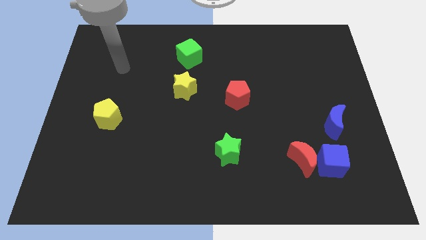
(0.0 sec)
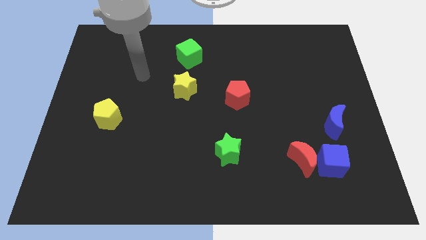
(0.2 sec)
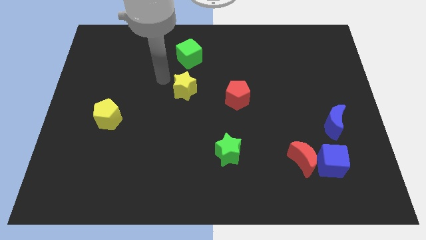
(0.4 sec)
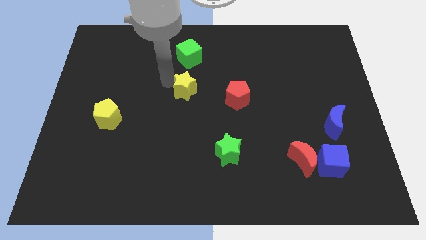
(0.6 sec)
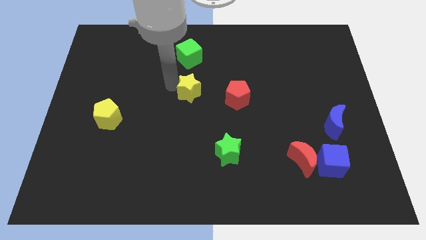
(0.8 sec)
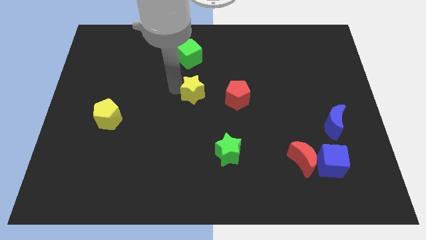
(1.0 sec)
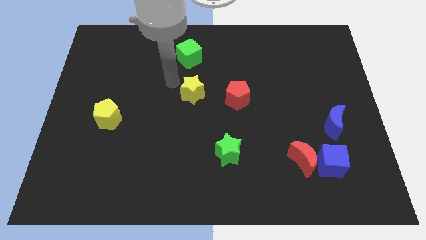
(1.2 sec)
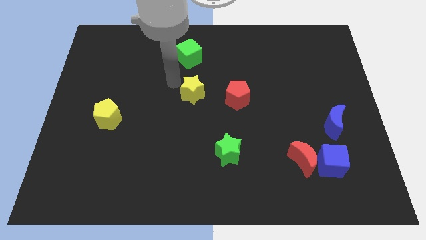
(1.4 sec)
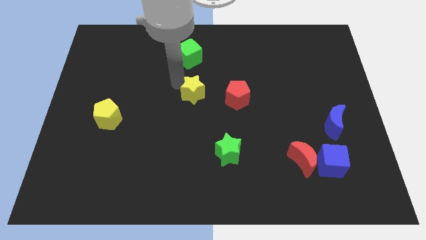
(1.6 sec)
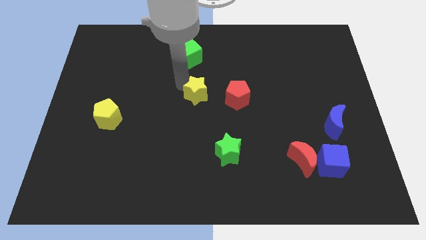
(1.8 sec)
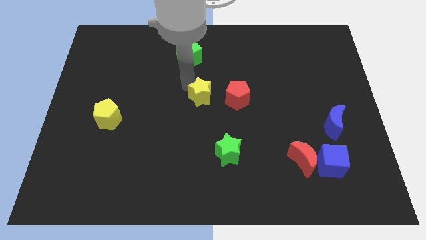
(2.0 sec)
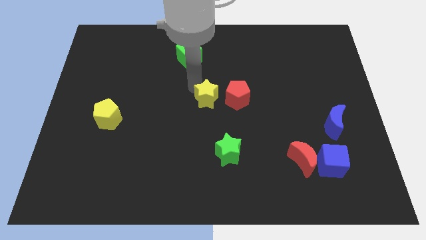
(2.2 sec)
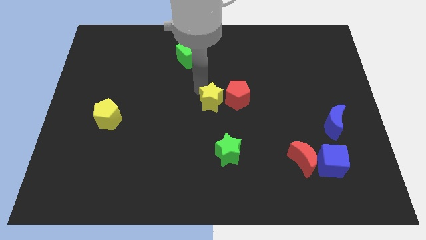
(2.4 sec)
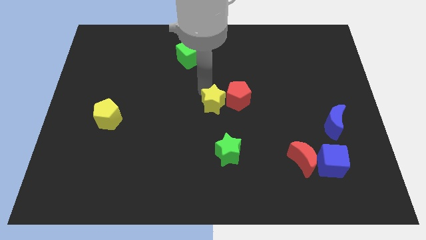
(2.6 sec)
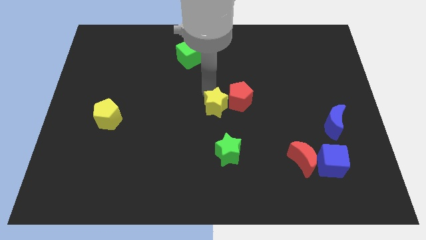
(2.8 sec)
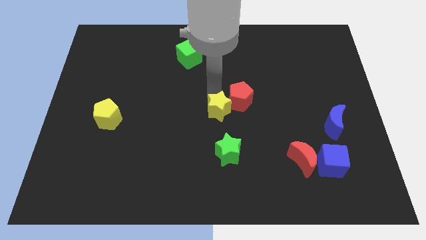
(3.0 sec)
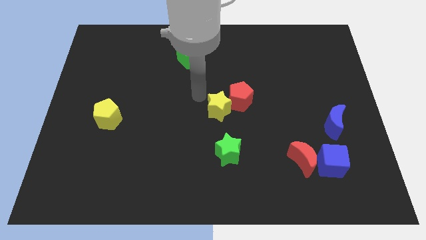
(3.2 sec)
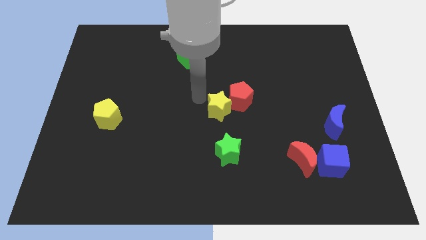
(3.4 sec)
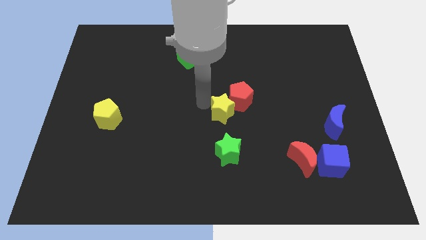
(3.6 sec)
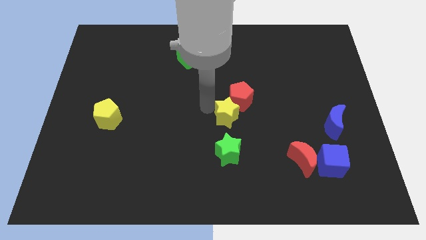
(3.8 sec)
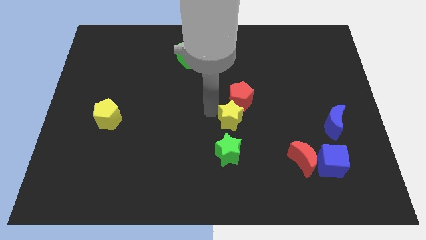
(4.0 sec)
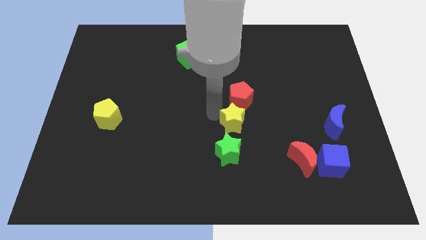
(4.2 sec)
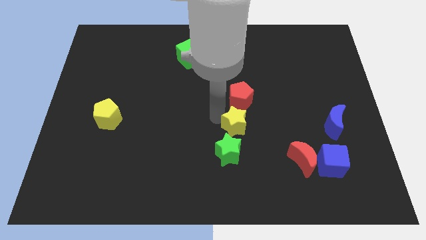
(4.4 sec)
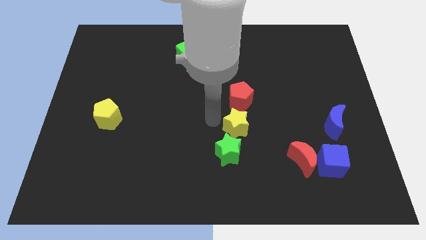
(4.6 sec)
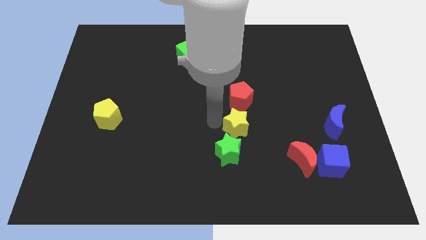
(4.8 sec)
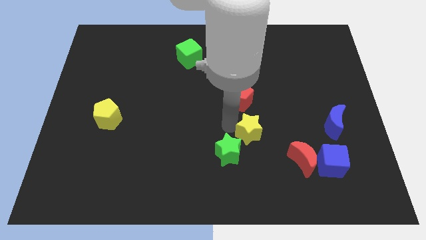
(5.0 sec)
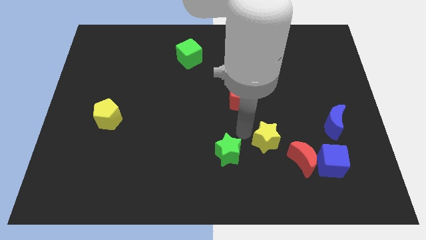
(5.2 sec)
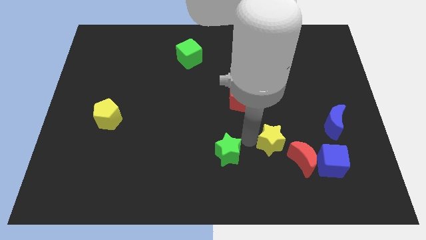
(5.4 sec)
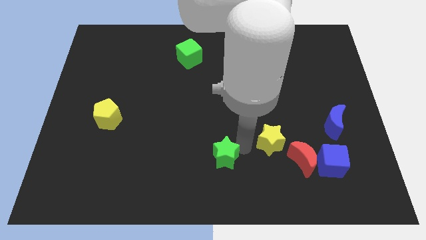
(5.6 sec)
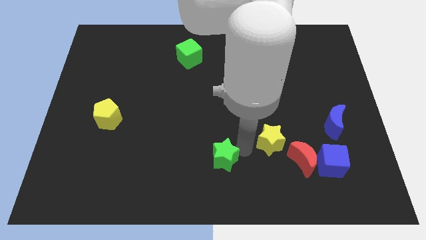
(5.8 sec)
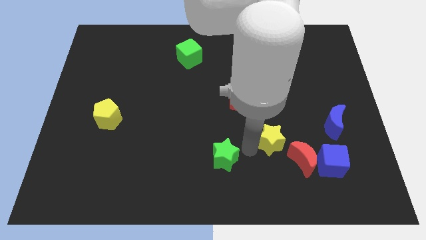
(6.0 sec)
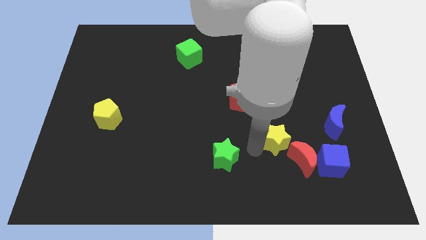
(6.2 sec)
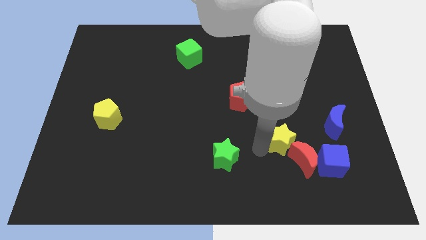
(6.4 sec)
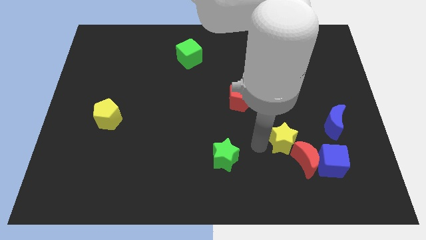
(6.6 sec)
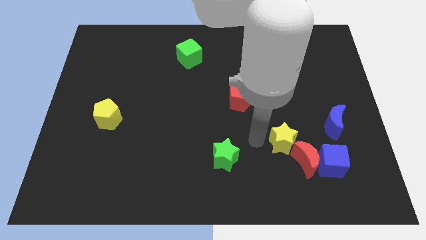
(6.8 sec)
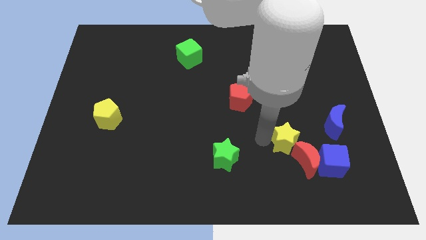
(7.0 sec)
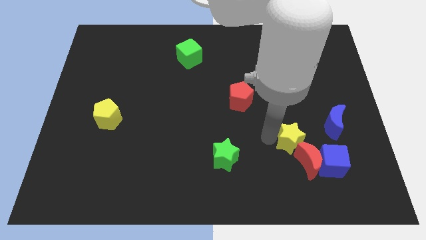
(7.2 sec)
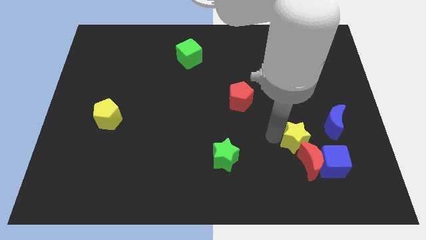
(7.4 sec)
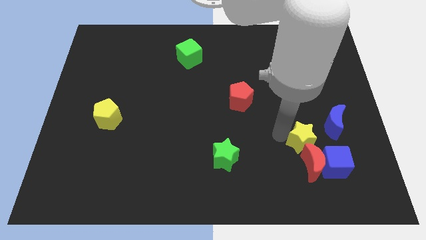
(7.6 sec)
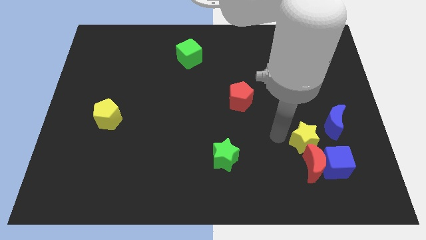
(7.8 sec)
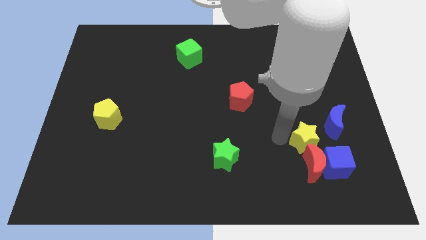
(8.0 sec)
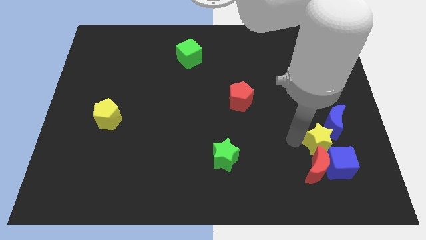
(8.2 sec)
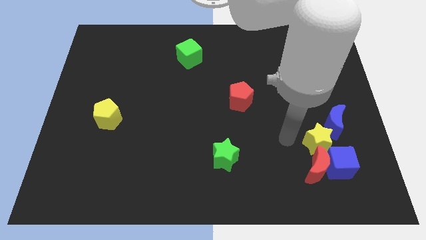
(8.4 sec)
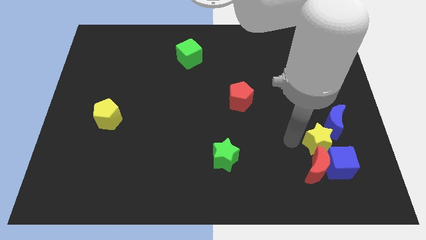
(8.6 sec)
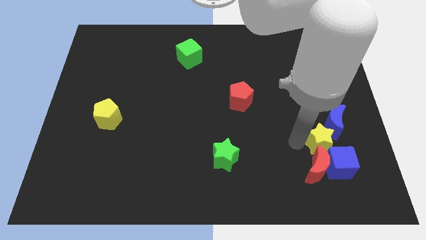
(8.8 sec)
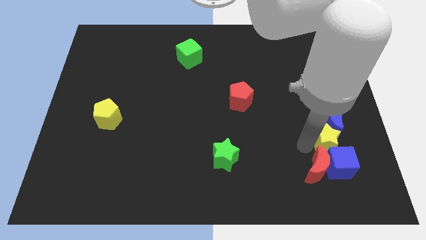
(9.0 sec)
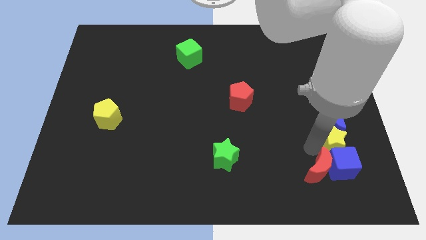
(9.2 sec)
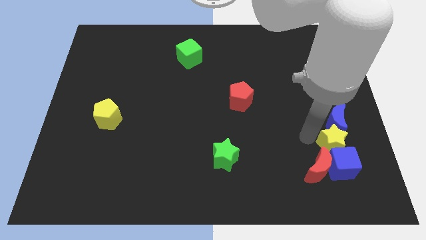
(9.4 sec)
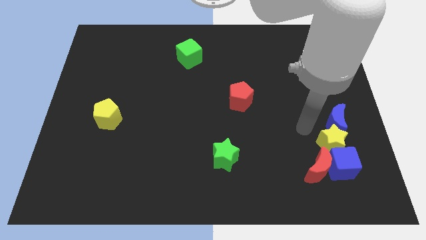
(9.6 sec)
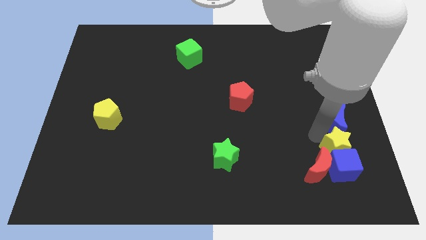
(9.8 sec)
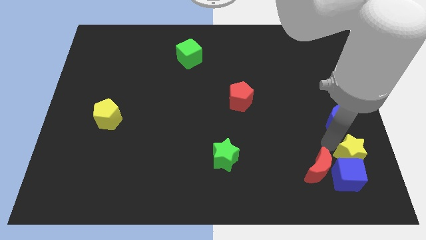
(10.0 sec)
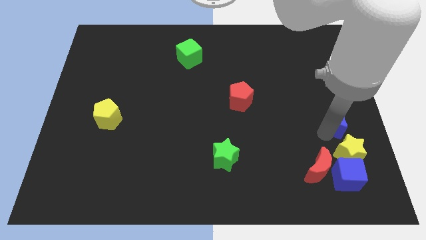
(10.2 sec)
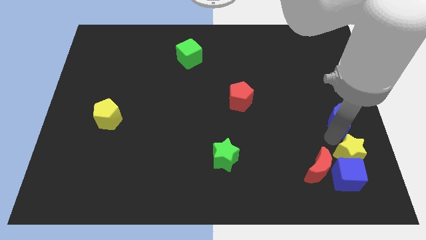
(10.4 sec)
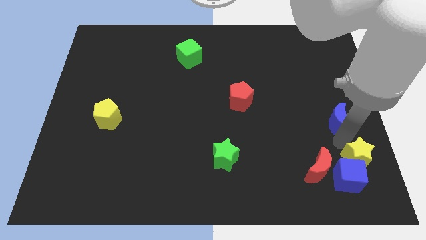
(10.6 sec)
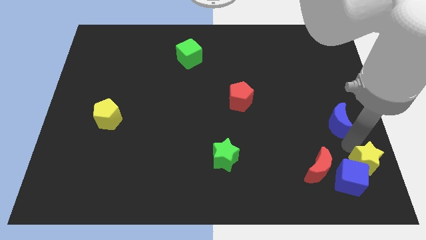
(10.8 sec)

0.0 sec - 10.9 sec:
put the yellow star to the lower right corner
